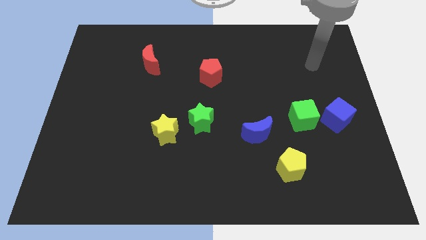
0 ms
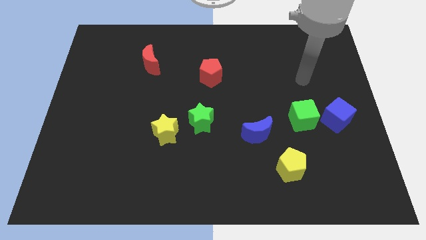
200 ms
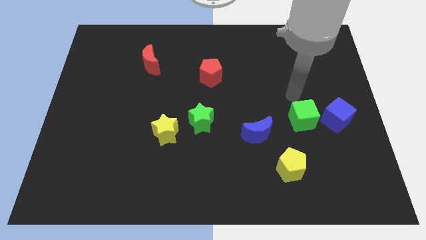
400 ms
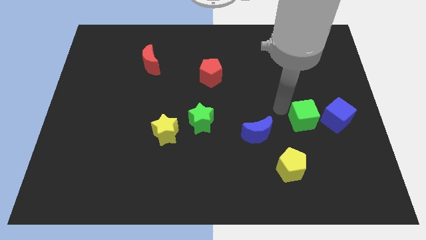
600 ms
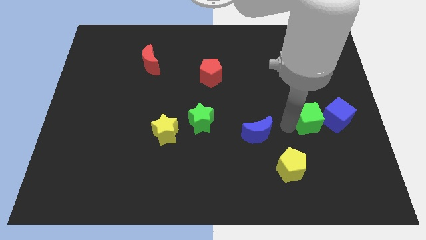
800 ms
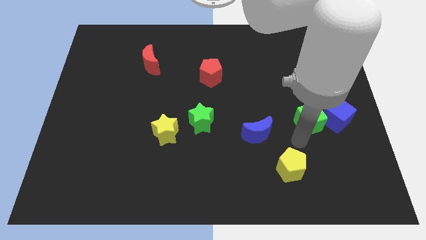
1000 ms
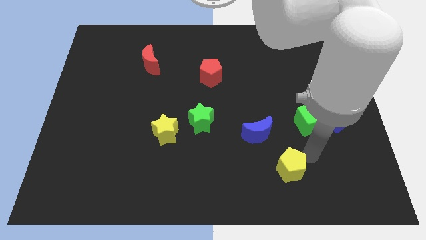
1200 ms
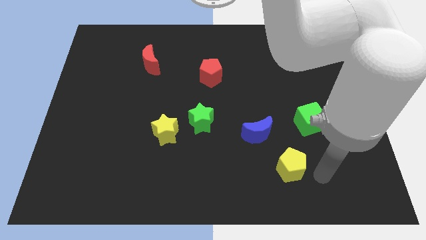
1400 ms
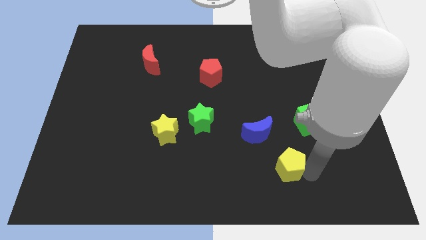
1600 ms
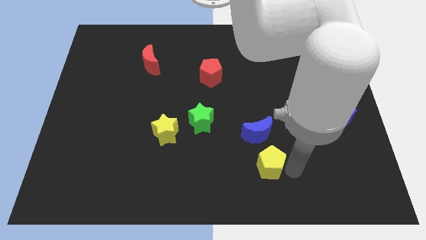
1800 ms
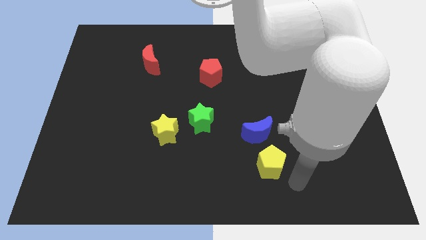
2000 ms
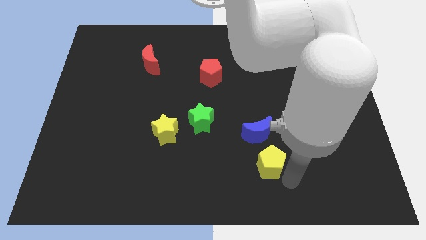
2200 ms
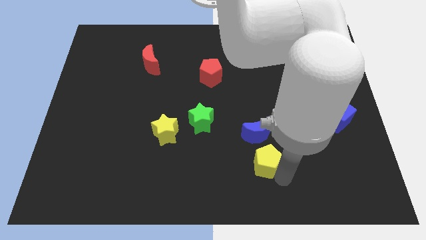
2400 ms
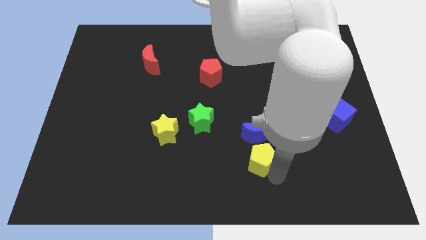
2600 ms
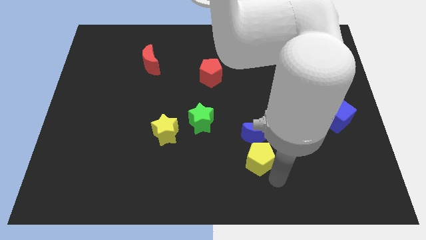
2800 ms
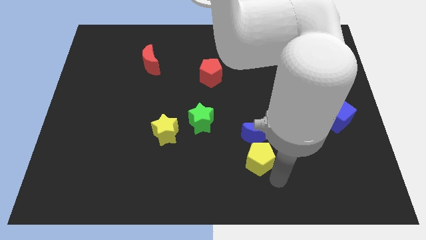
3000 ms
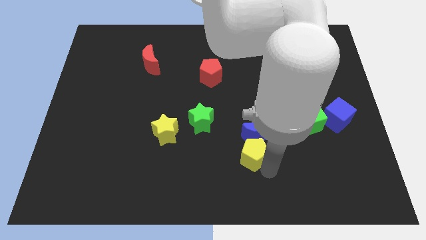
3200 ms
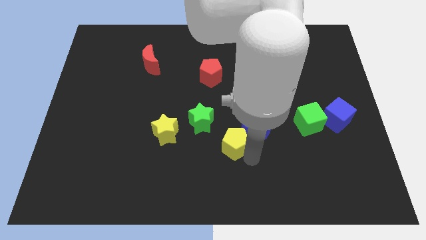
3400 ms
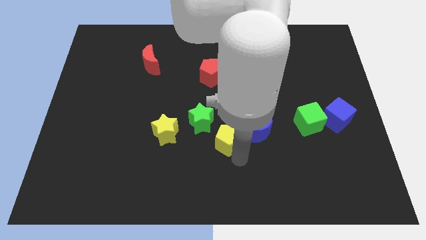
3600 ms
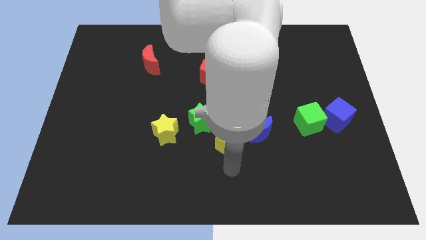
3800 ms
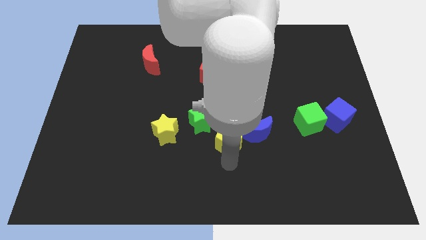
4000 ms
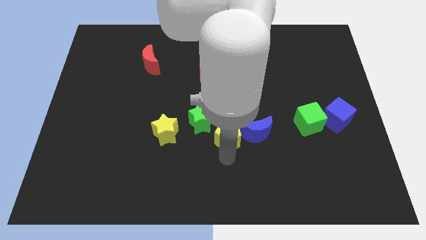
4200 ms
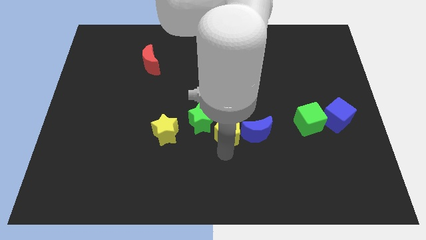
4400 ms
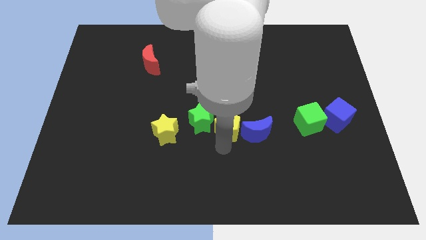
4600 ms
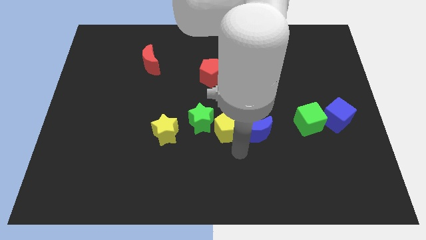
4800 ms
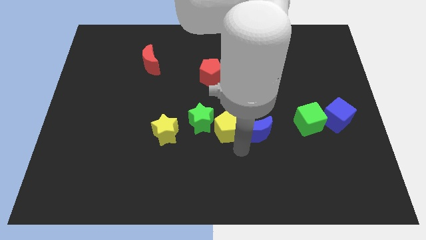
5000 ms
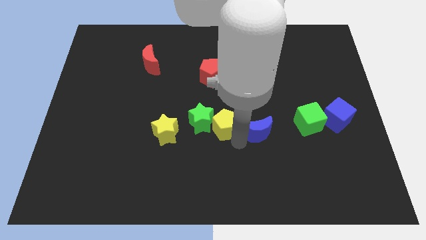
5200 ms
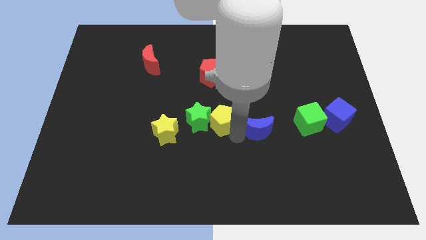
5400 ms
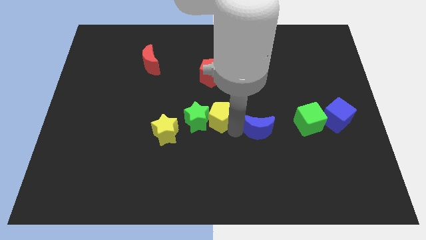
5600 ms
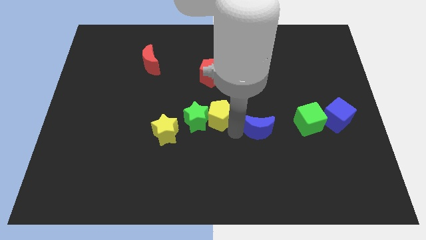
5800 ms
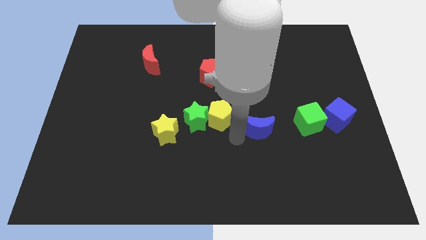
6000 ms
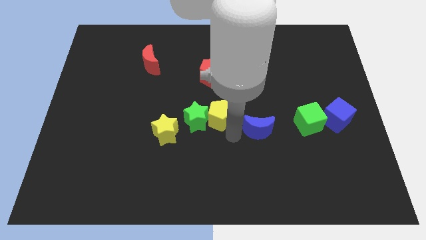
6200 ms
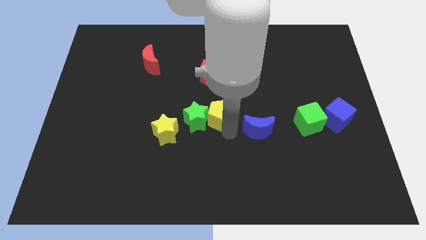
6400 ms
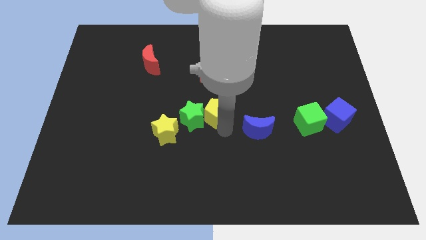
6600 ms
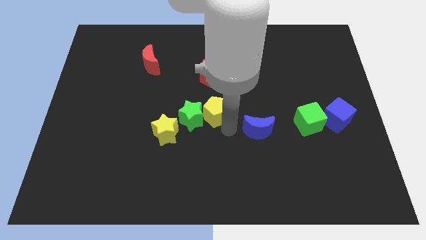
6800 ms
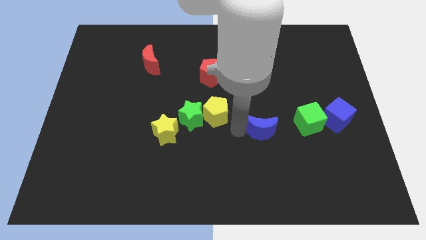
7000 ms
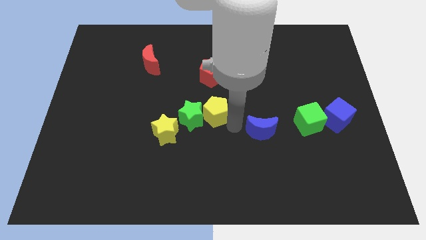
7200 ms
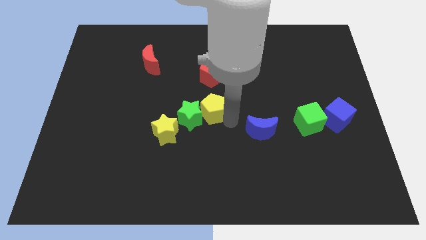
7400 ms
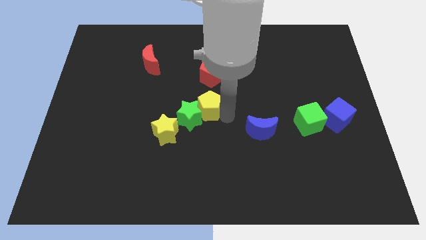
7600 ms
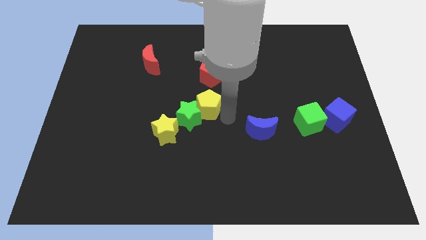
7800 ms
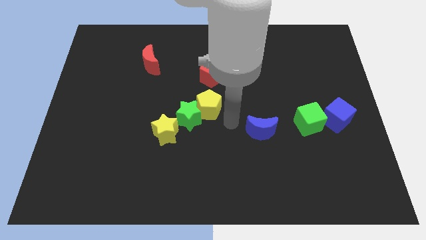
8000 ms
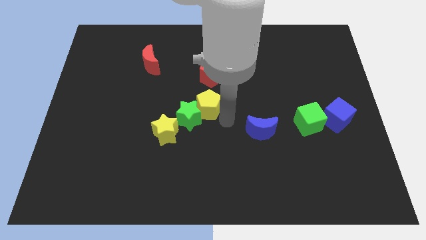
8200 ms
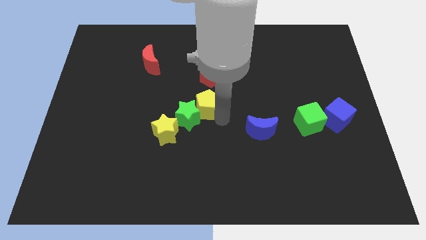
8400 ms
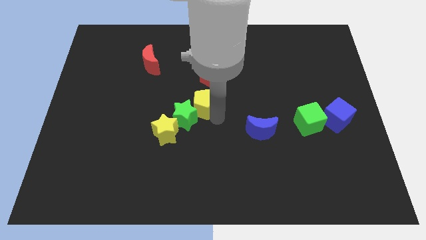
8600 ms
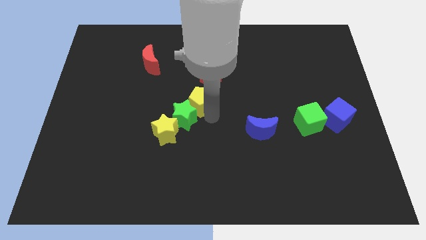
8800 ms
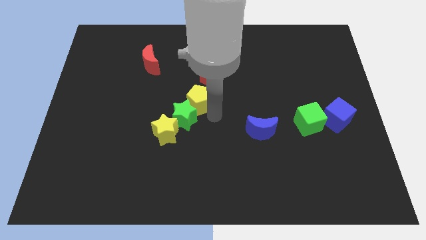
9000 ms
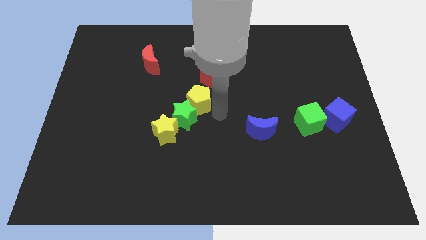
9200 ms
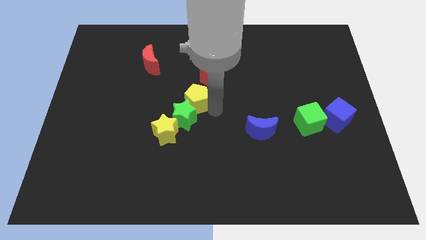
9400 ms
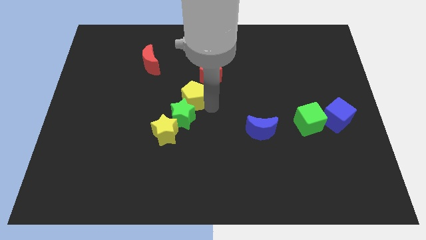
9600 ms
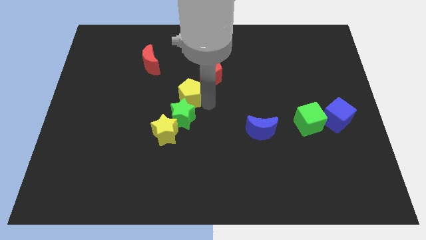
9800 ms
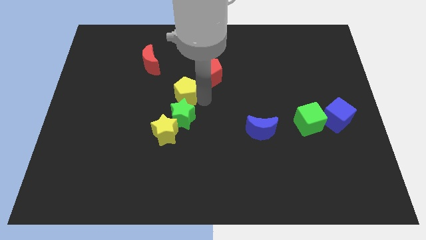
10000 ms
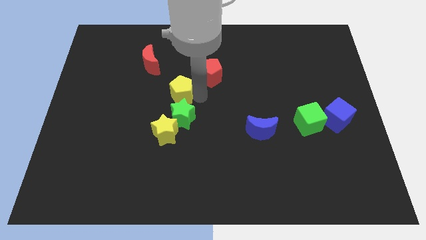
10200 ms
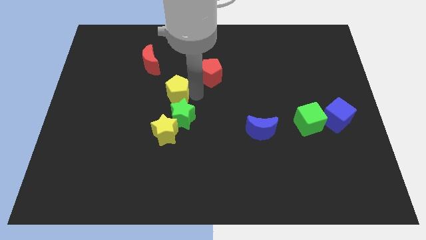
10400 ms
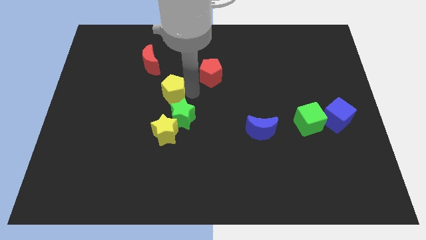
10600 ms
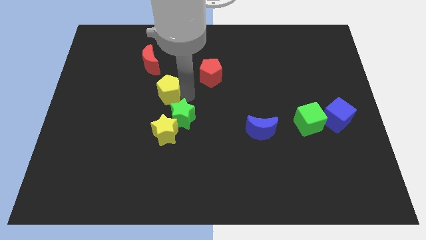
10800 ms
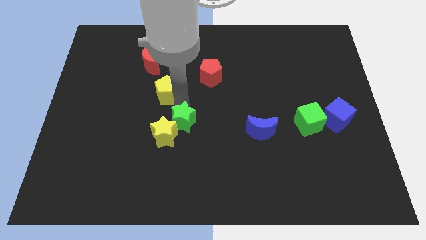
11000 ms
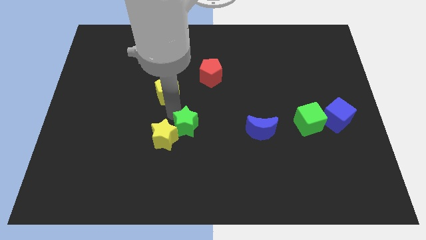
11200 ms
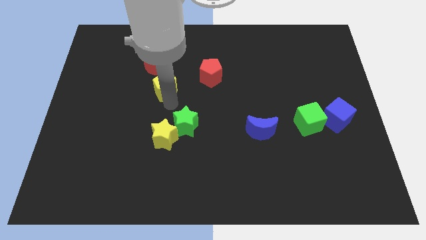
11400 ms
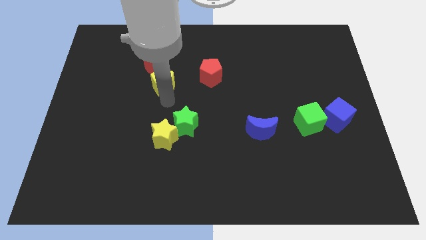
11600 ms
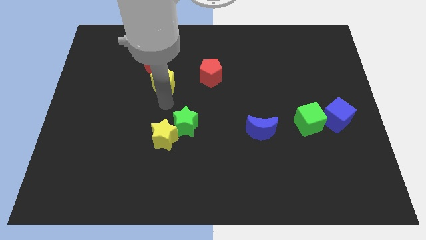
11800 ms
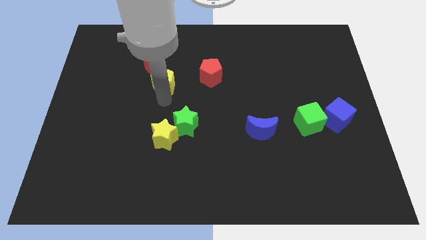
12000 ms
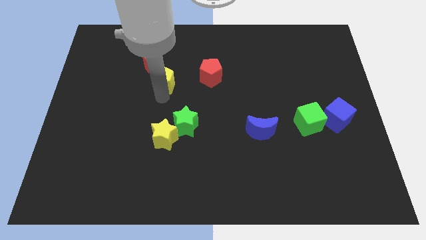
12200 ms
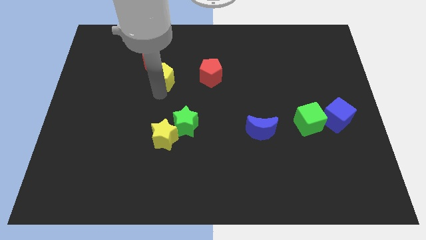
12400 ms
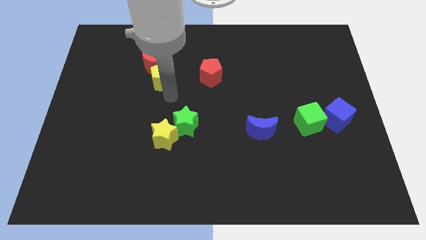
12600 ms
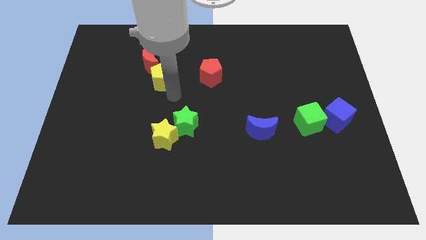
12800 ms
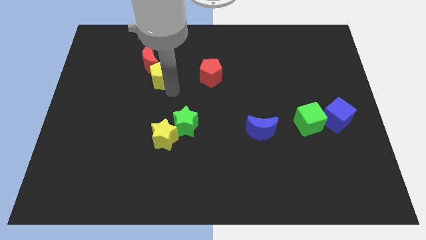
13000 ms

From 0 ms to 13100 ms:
put the yellow pentagon close to the red moon
